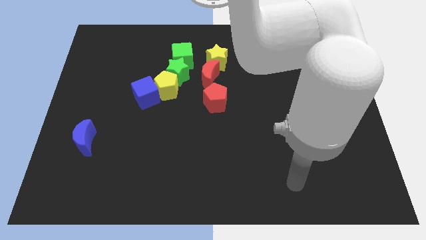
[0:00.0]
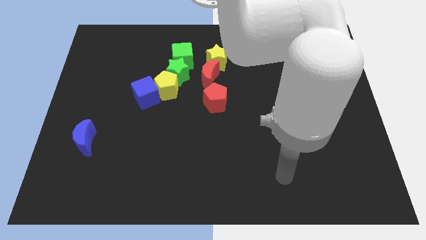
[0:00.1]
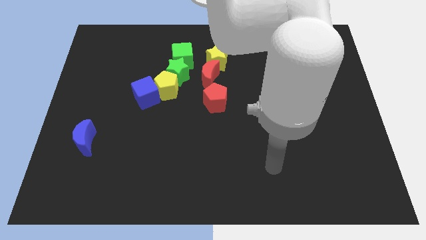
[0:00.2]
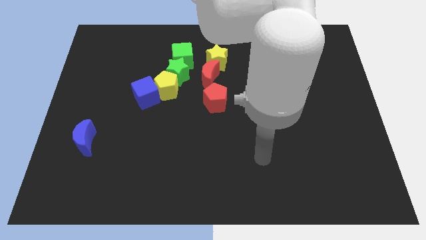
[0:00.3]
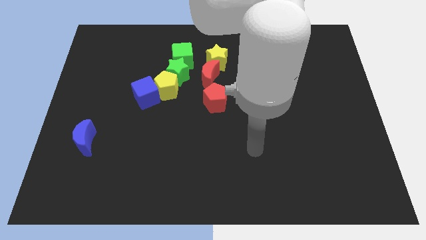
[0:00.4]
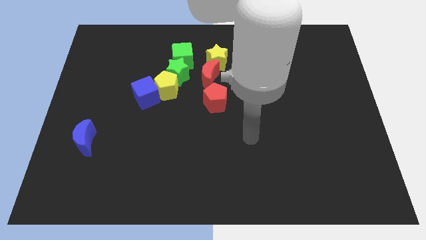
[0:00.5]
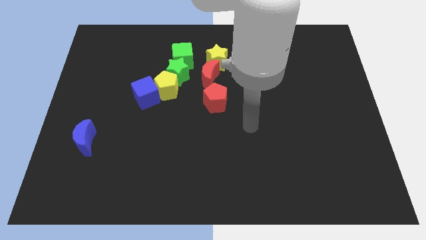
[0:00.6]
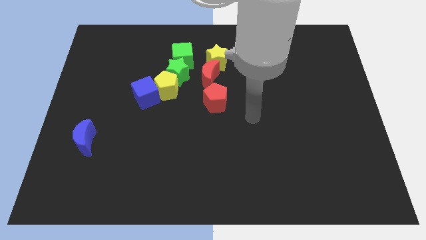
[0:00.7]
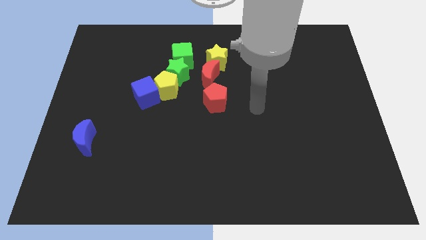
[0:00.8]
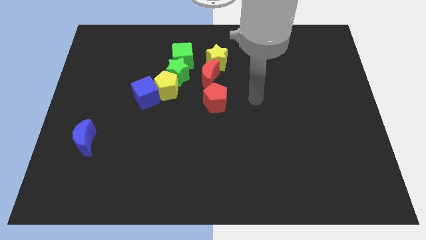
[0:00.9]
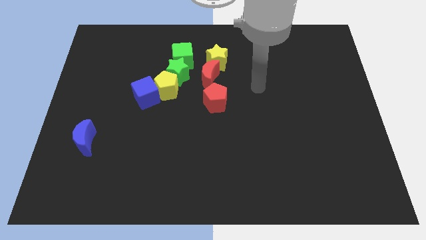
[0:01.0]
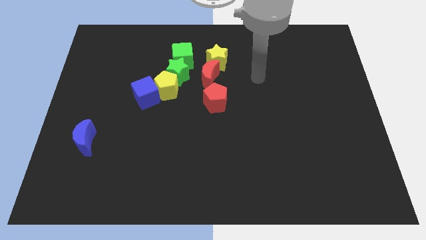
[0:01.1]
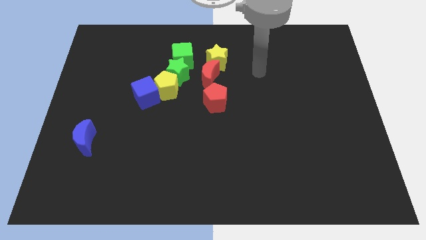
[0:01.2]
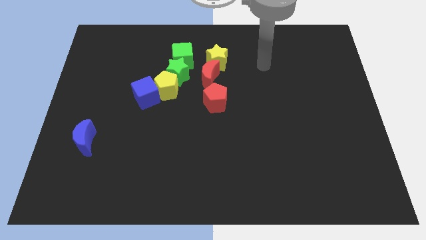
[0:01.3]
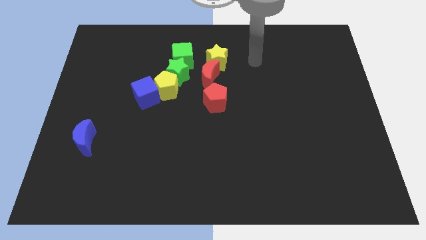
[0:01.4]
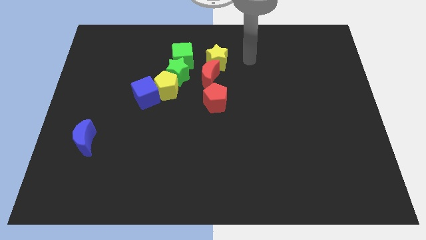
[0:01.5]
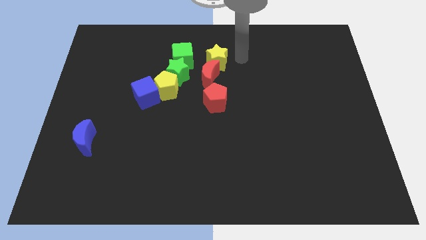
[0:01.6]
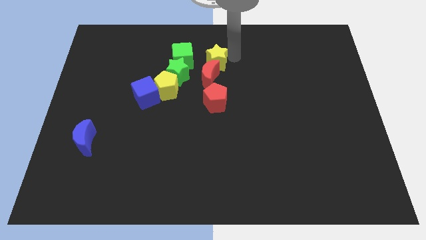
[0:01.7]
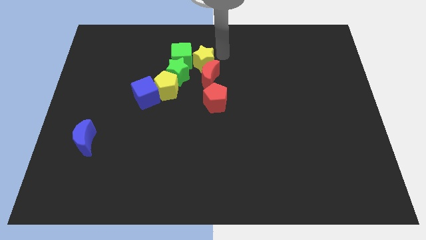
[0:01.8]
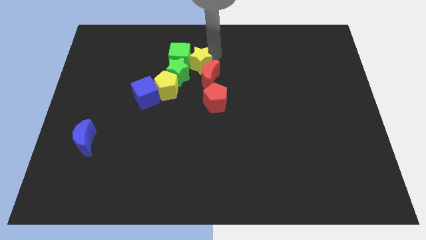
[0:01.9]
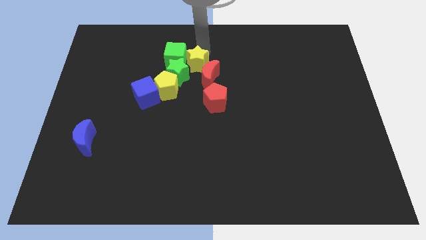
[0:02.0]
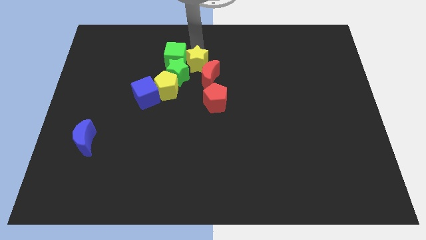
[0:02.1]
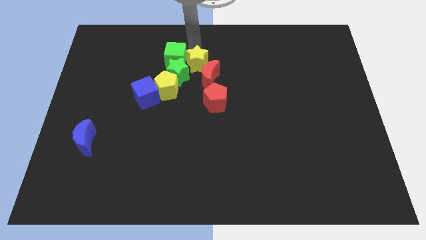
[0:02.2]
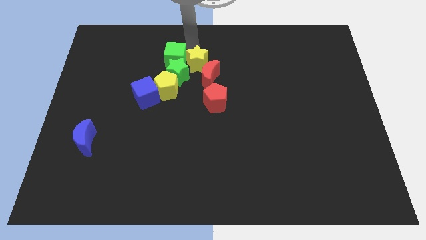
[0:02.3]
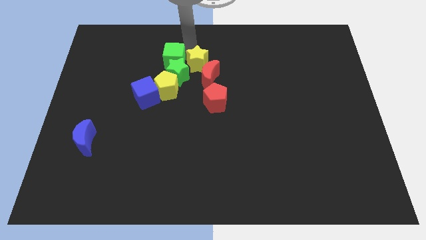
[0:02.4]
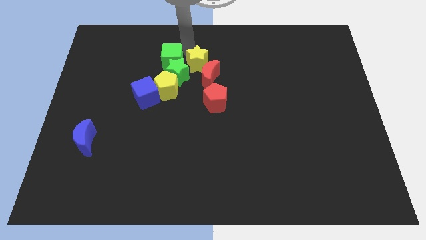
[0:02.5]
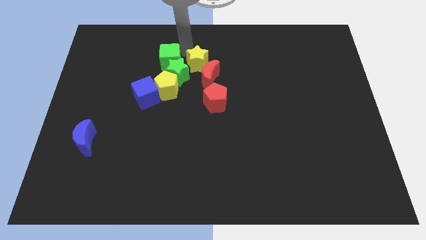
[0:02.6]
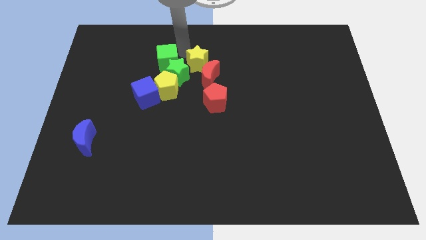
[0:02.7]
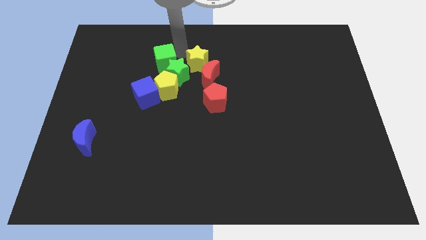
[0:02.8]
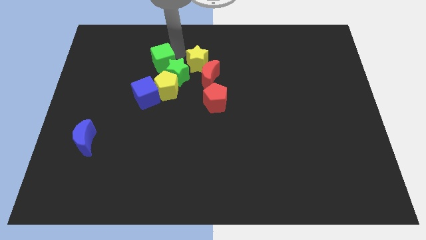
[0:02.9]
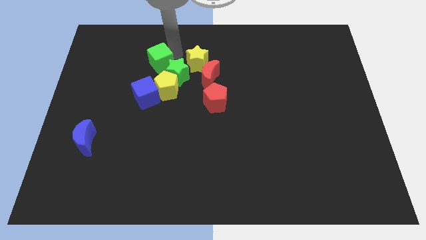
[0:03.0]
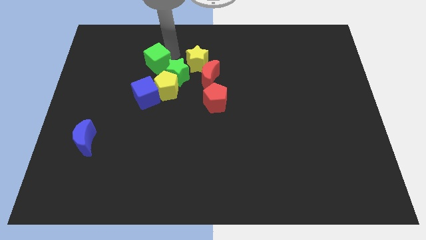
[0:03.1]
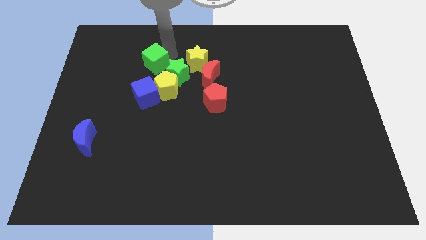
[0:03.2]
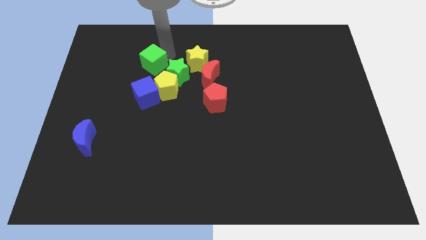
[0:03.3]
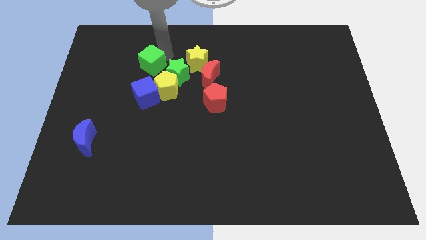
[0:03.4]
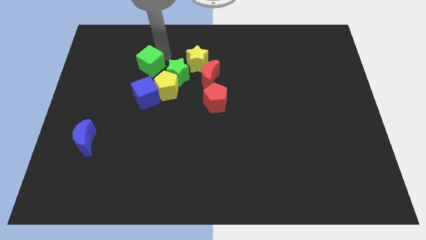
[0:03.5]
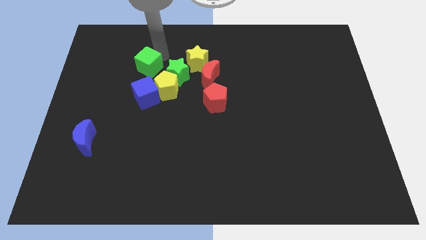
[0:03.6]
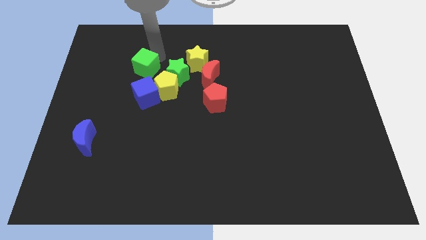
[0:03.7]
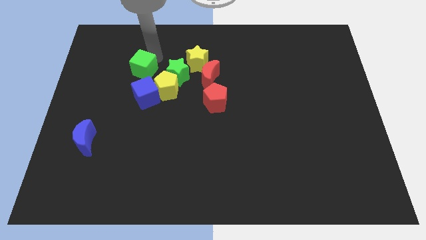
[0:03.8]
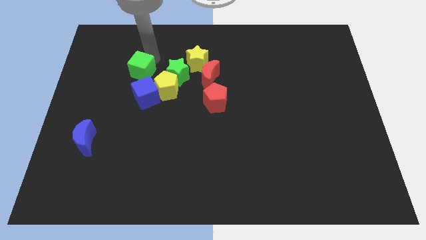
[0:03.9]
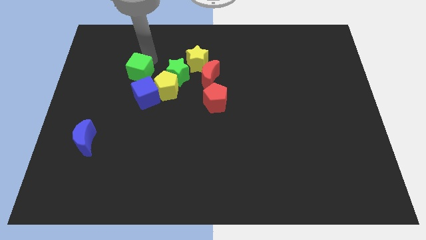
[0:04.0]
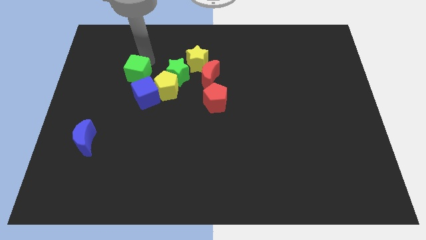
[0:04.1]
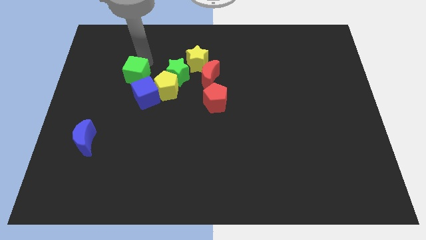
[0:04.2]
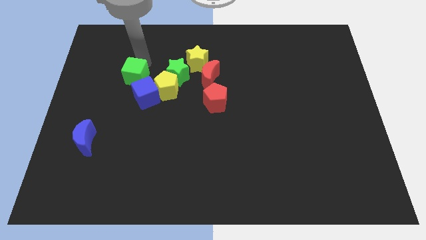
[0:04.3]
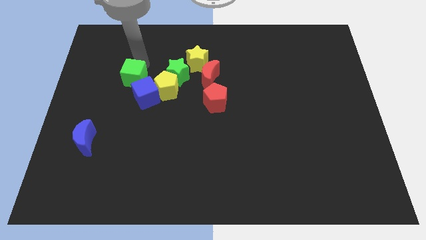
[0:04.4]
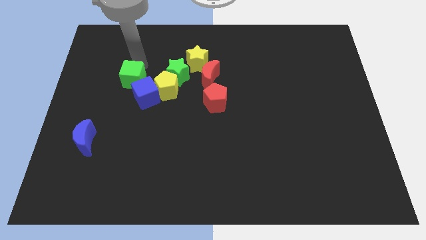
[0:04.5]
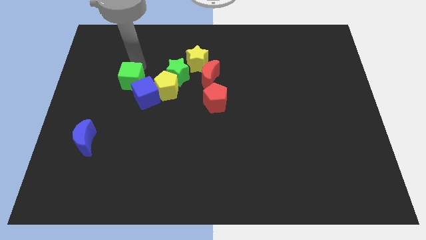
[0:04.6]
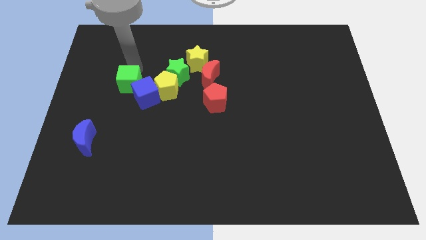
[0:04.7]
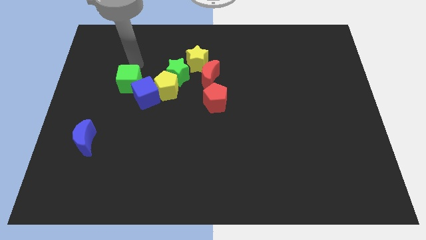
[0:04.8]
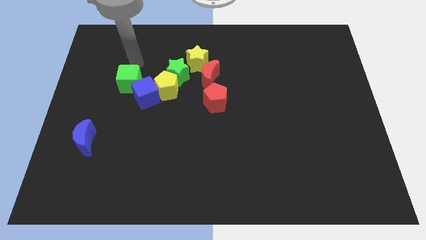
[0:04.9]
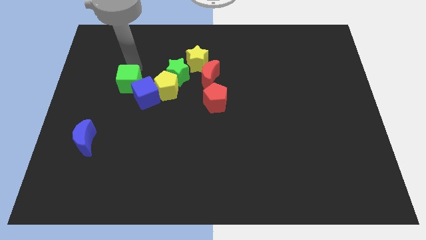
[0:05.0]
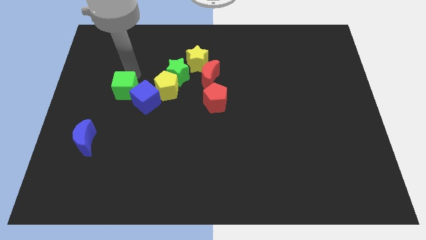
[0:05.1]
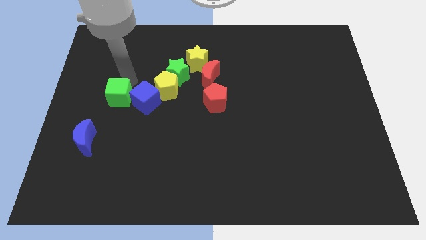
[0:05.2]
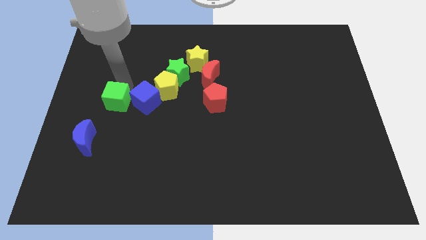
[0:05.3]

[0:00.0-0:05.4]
slide the green cube diagonally down and to the left of the blue cube

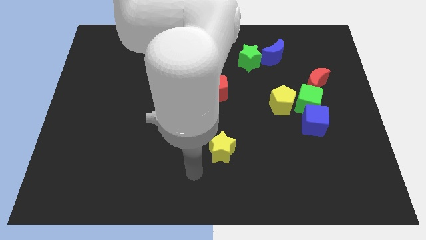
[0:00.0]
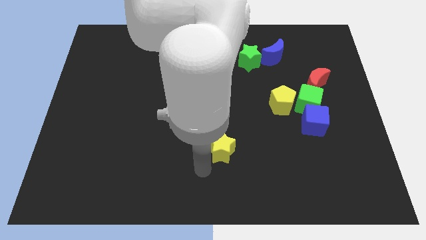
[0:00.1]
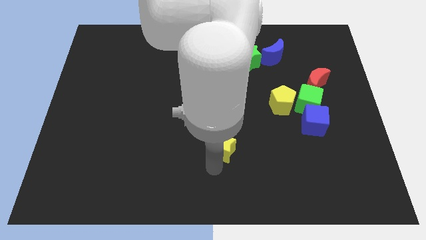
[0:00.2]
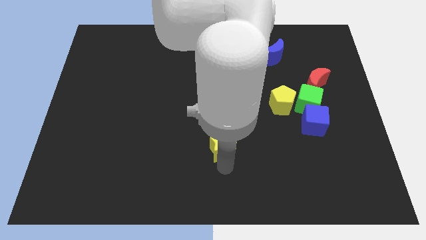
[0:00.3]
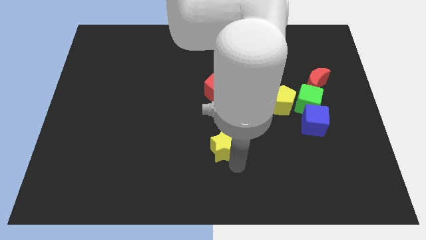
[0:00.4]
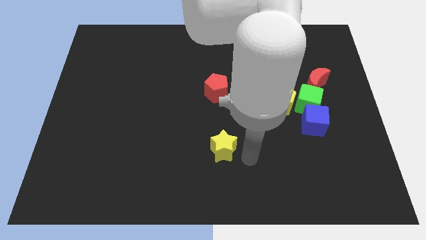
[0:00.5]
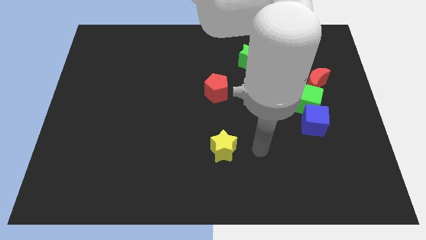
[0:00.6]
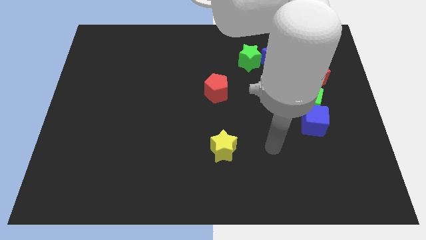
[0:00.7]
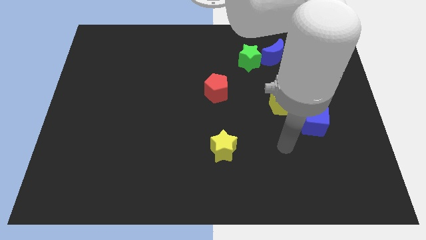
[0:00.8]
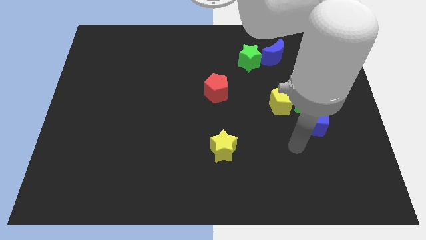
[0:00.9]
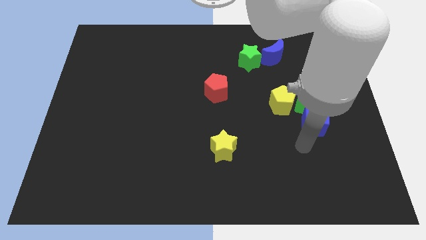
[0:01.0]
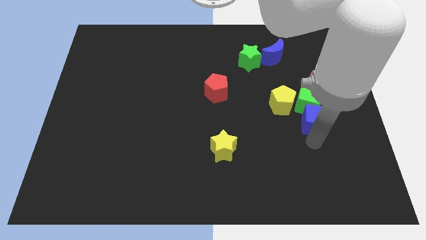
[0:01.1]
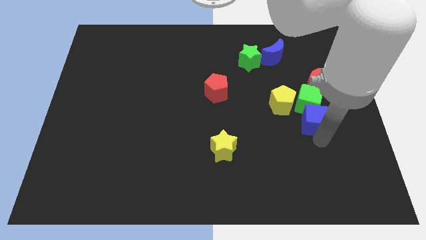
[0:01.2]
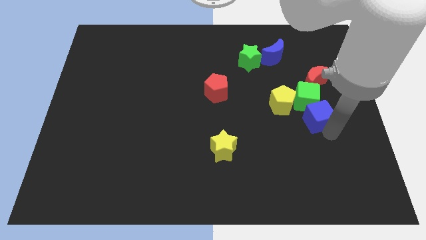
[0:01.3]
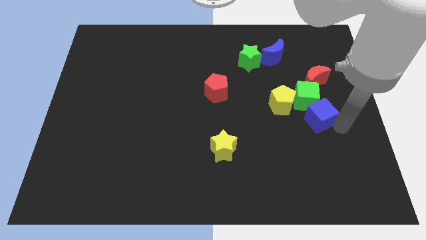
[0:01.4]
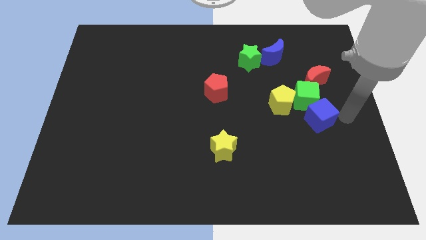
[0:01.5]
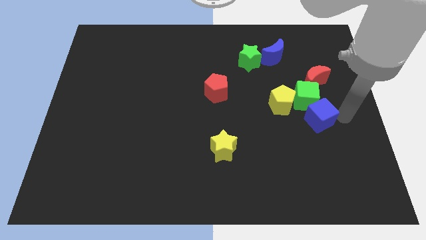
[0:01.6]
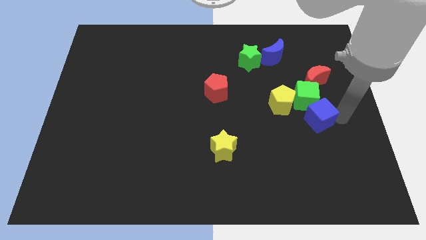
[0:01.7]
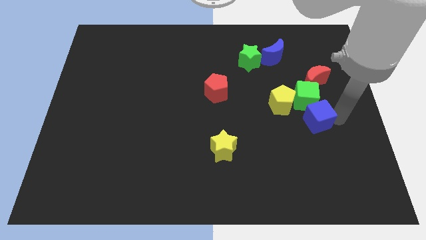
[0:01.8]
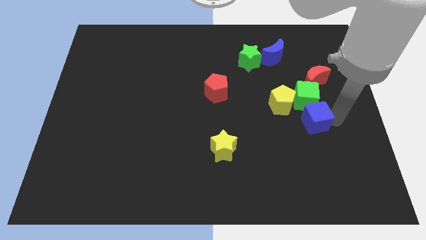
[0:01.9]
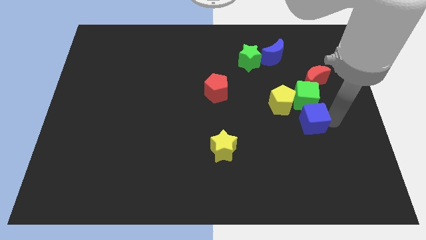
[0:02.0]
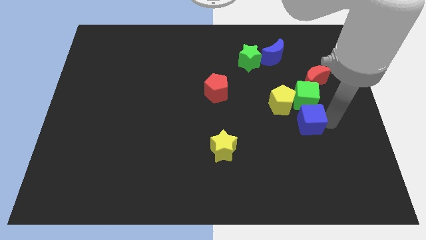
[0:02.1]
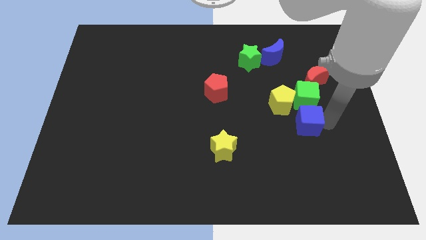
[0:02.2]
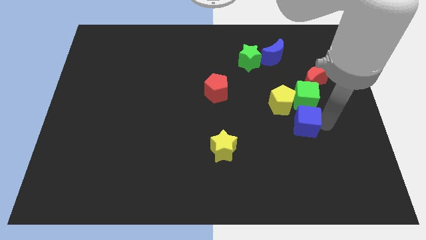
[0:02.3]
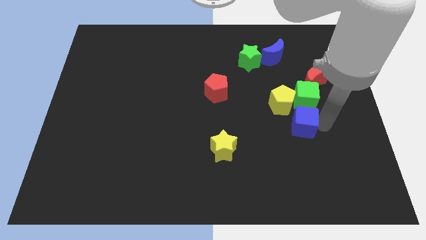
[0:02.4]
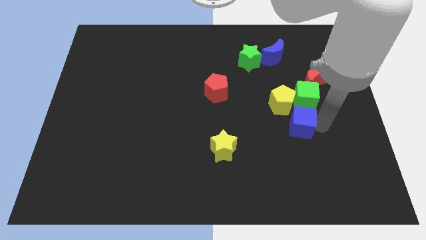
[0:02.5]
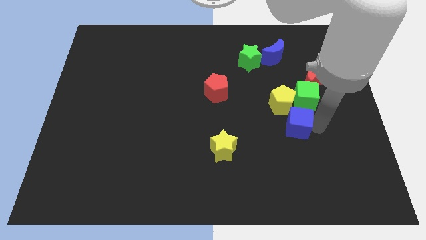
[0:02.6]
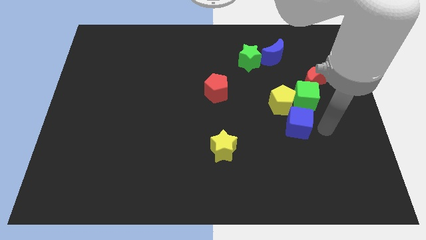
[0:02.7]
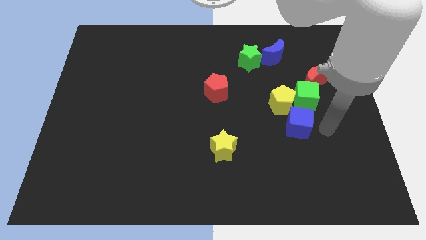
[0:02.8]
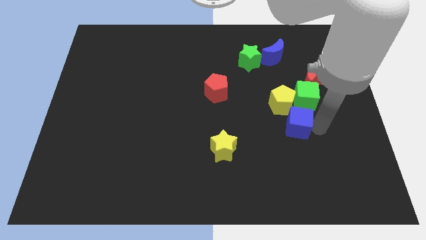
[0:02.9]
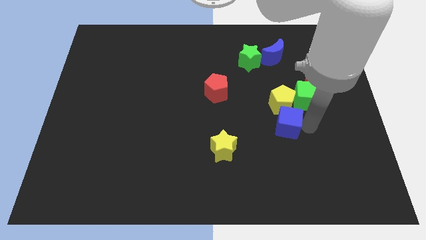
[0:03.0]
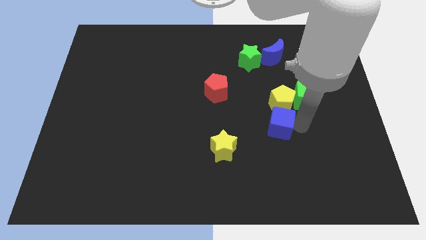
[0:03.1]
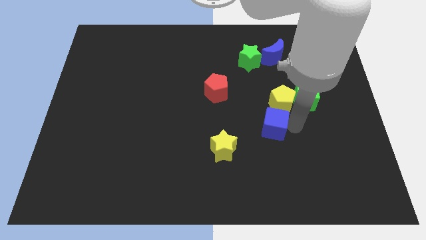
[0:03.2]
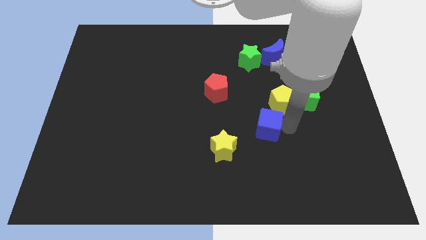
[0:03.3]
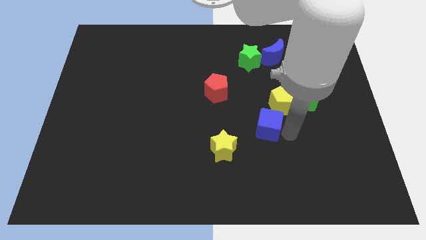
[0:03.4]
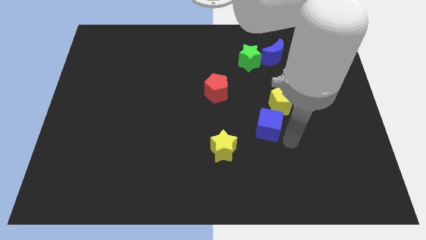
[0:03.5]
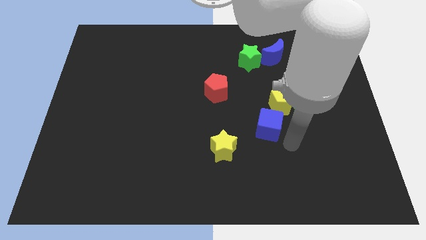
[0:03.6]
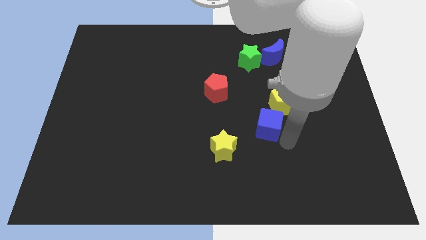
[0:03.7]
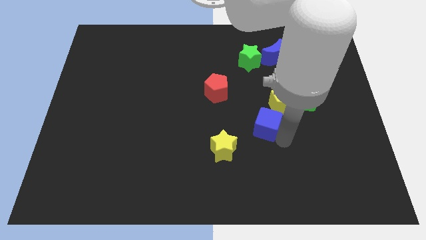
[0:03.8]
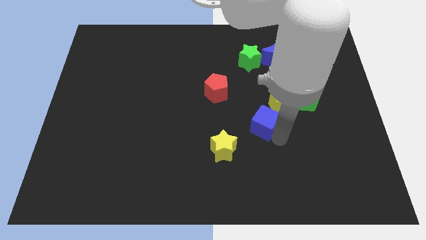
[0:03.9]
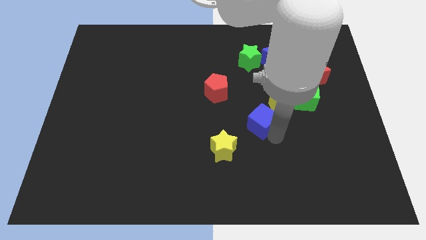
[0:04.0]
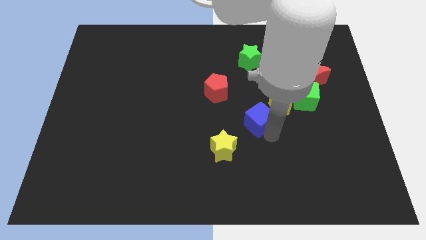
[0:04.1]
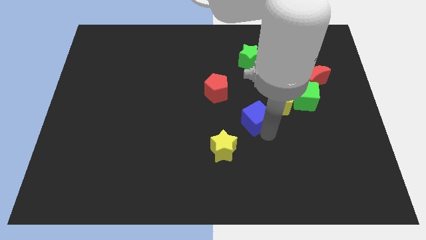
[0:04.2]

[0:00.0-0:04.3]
slide the blue cube to the left side of the yellow pentagon
